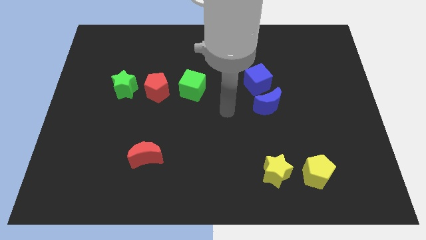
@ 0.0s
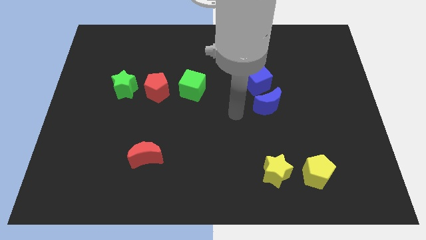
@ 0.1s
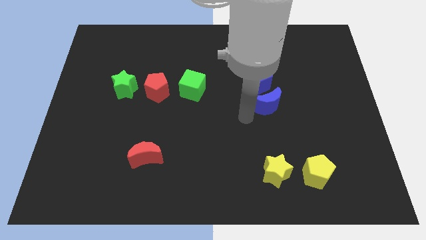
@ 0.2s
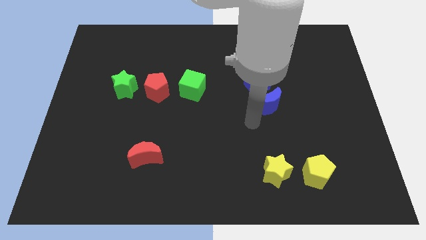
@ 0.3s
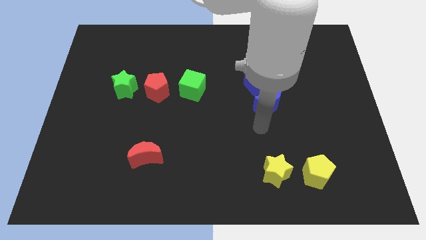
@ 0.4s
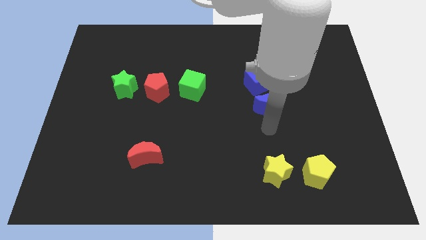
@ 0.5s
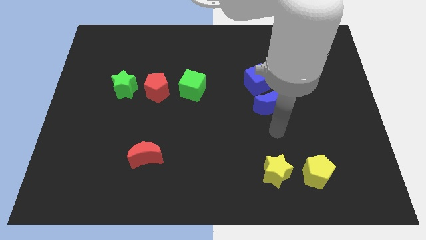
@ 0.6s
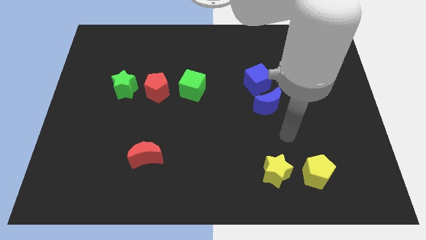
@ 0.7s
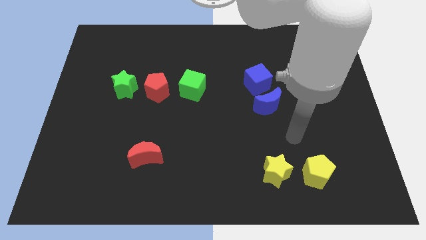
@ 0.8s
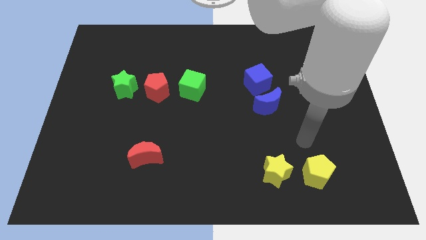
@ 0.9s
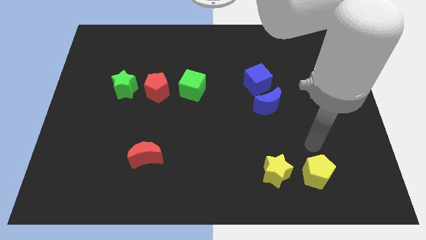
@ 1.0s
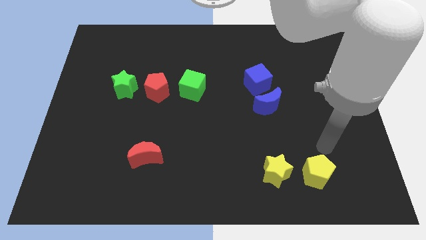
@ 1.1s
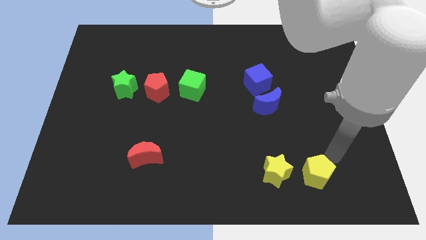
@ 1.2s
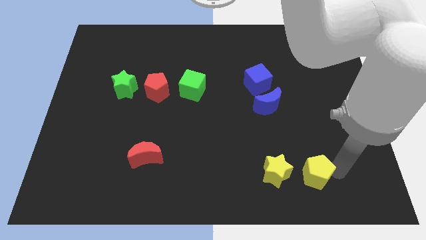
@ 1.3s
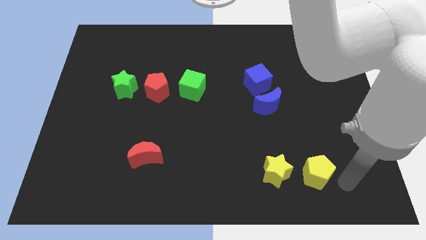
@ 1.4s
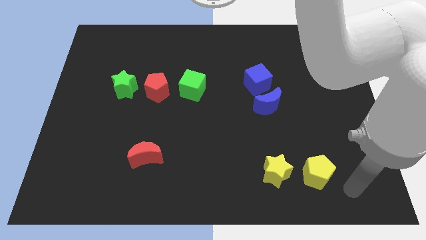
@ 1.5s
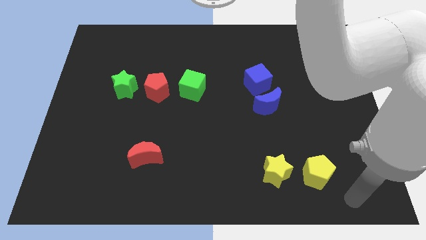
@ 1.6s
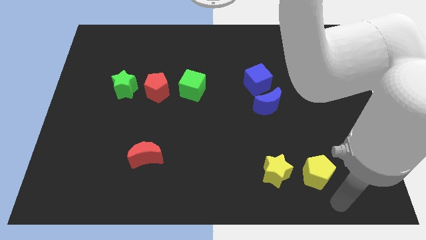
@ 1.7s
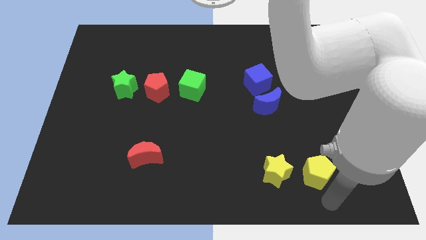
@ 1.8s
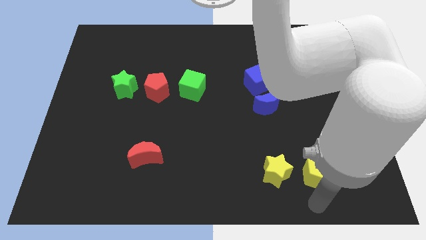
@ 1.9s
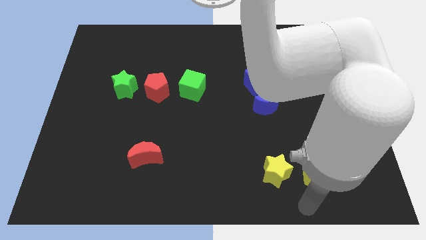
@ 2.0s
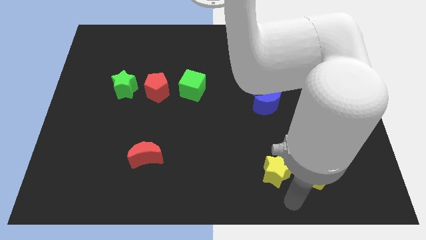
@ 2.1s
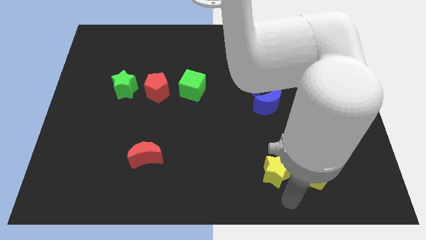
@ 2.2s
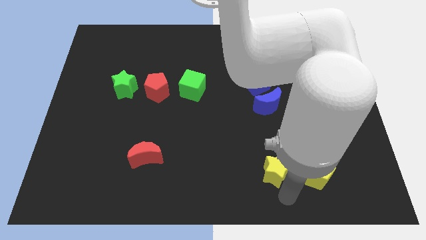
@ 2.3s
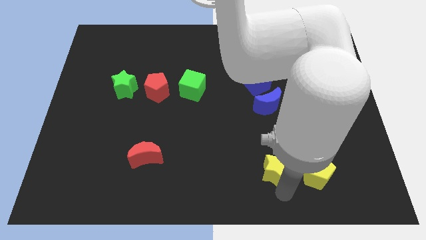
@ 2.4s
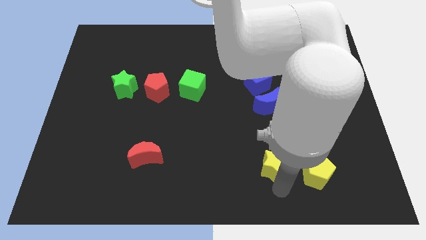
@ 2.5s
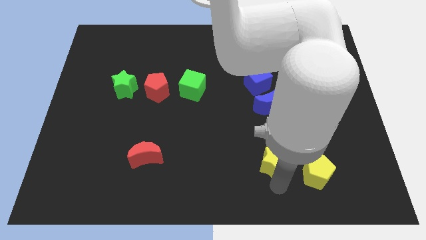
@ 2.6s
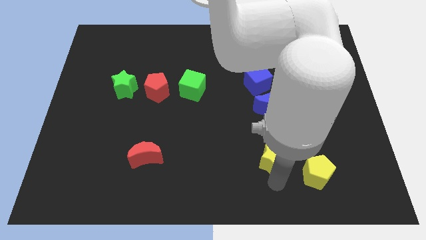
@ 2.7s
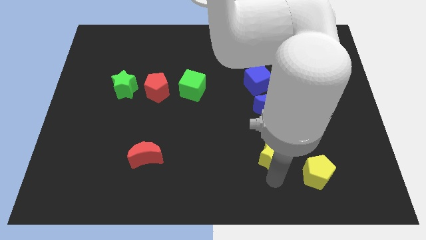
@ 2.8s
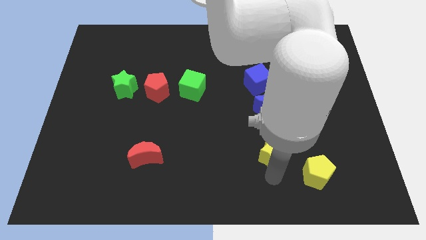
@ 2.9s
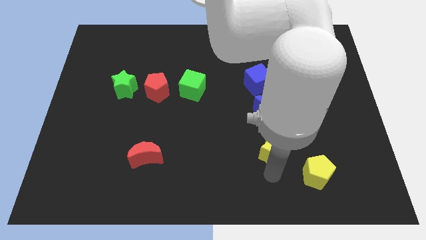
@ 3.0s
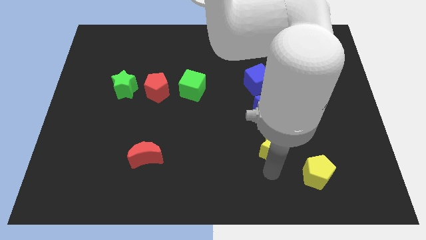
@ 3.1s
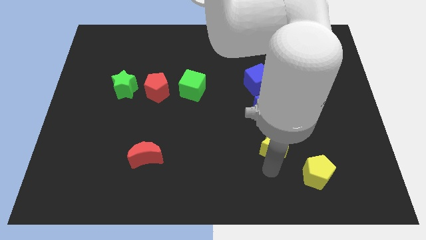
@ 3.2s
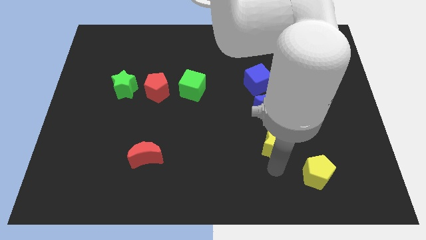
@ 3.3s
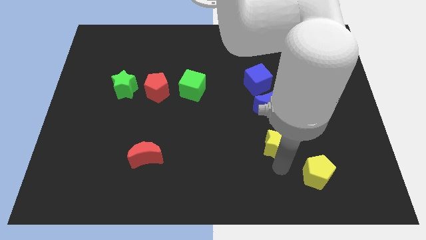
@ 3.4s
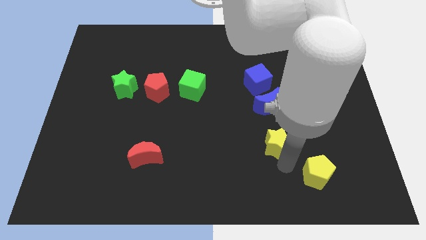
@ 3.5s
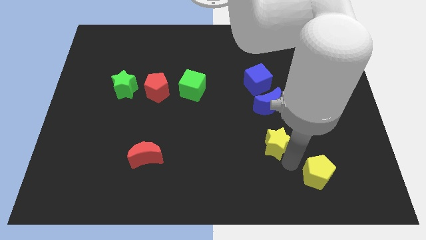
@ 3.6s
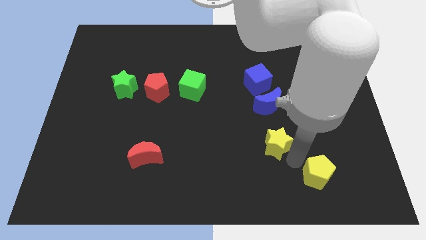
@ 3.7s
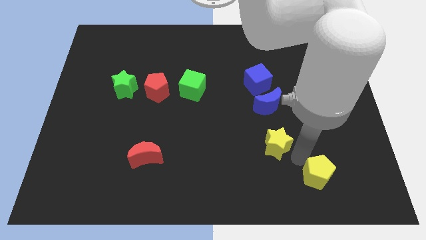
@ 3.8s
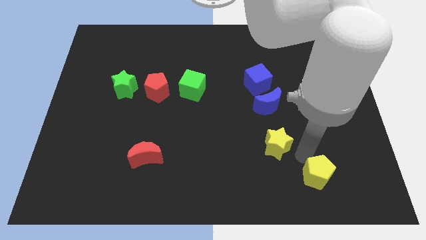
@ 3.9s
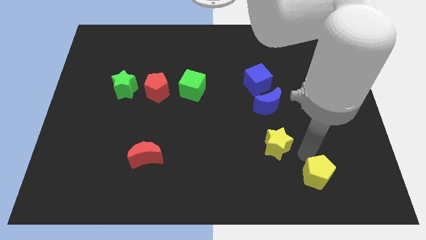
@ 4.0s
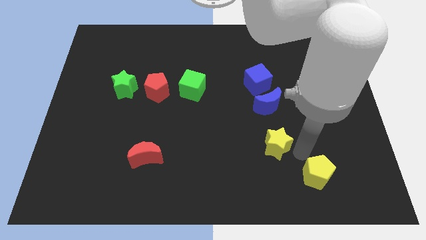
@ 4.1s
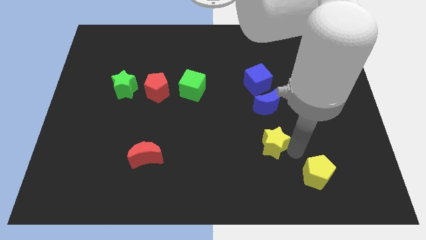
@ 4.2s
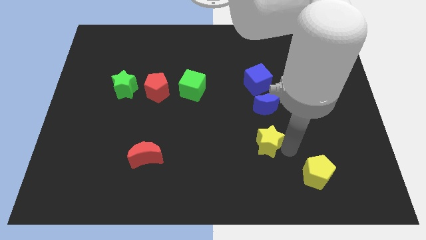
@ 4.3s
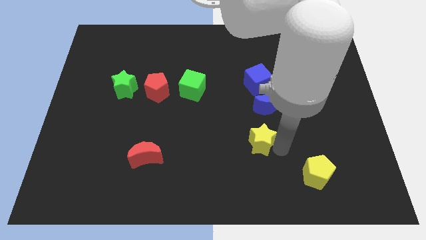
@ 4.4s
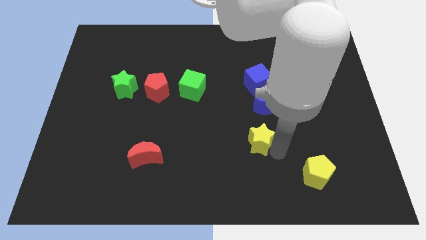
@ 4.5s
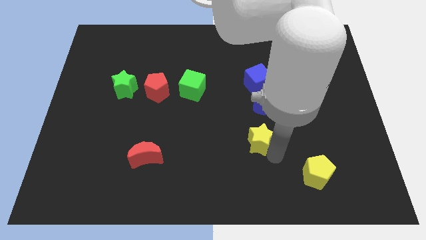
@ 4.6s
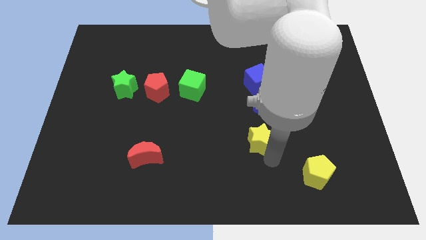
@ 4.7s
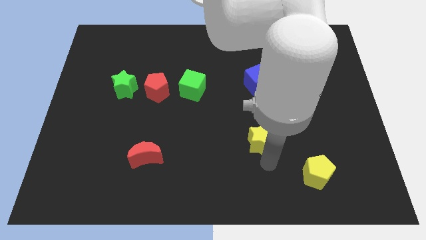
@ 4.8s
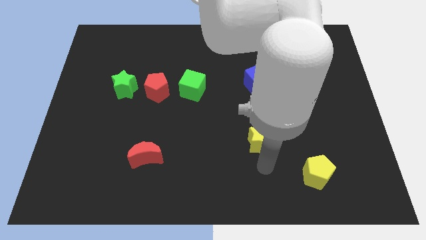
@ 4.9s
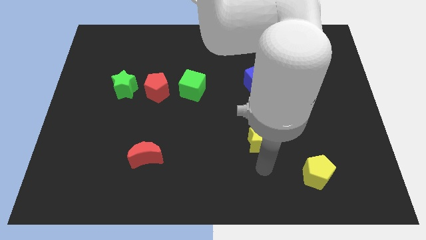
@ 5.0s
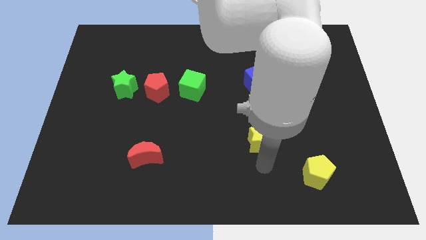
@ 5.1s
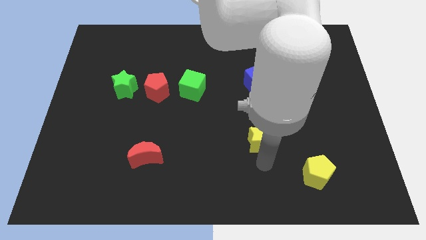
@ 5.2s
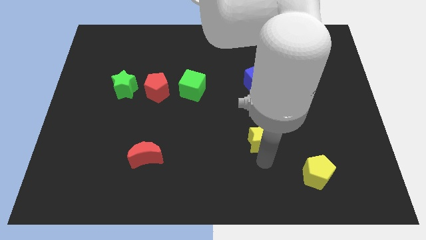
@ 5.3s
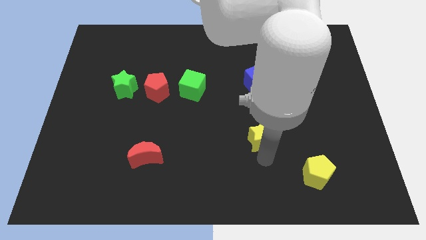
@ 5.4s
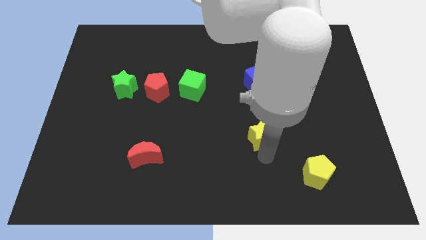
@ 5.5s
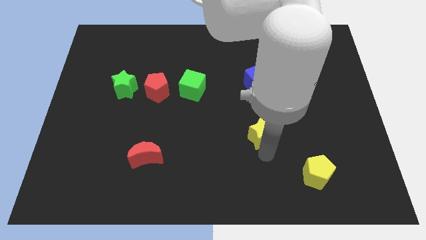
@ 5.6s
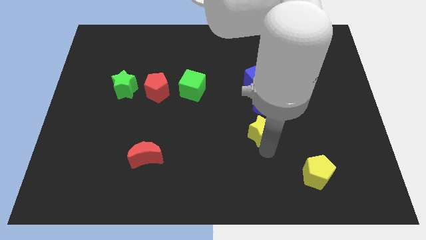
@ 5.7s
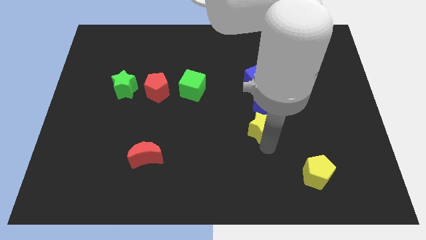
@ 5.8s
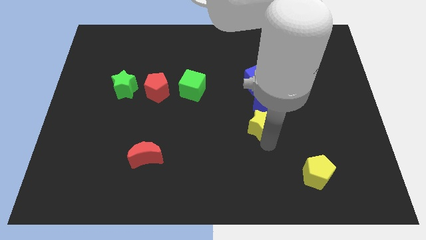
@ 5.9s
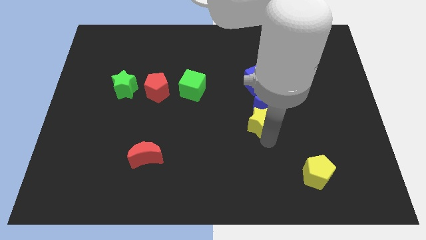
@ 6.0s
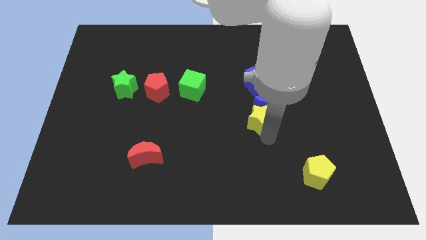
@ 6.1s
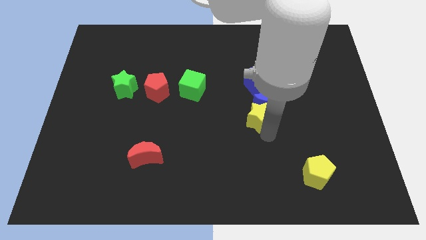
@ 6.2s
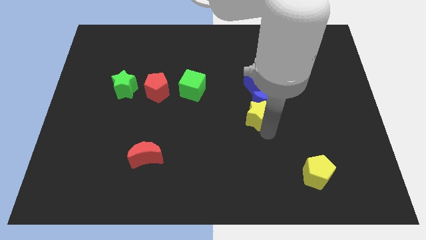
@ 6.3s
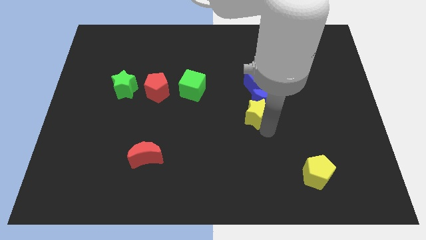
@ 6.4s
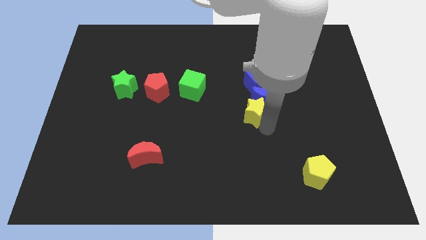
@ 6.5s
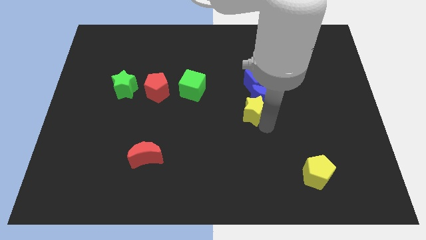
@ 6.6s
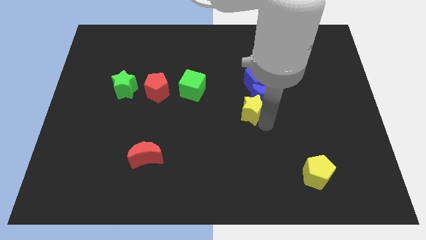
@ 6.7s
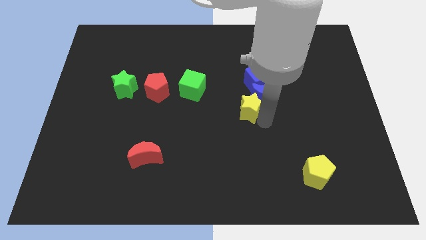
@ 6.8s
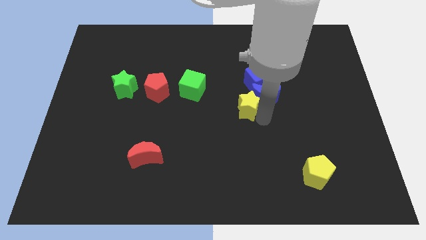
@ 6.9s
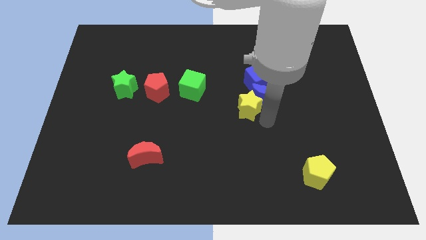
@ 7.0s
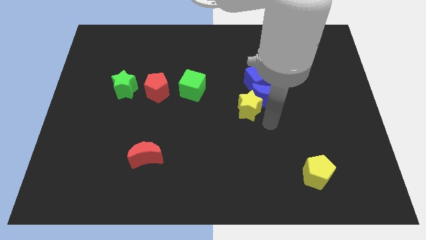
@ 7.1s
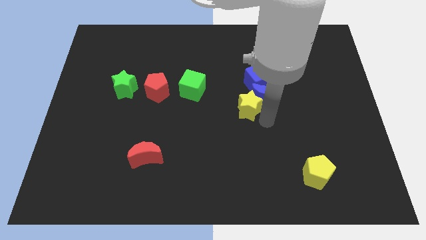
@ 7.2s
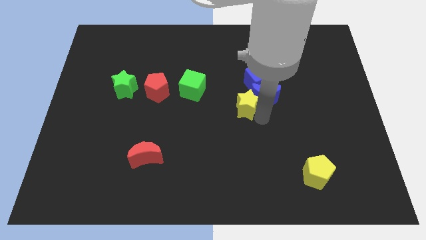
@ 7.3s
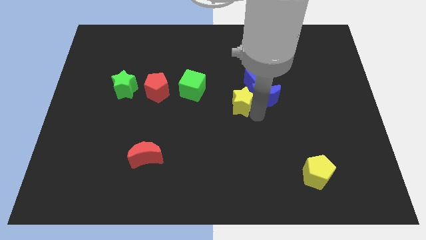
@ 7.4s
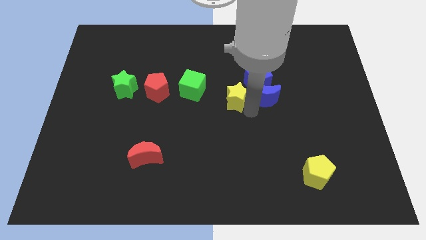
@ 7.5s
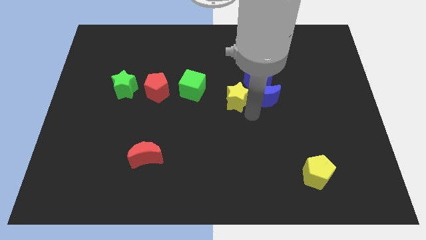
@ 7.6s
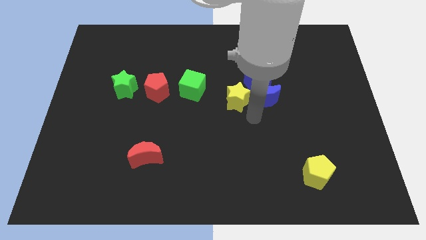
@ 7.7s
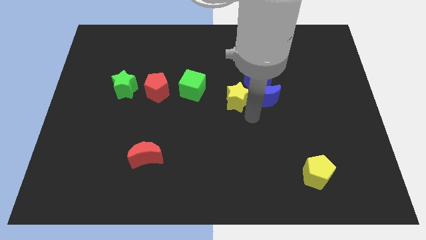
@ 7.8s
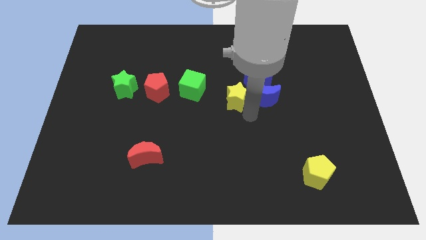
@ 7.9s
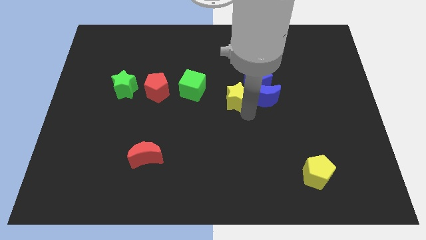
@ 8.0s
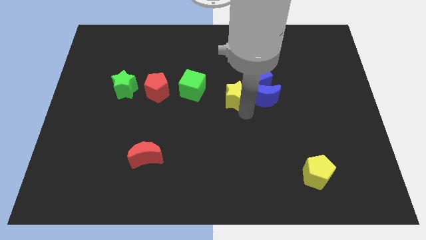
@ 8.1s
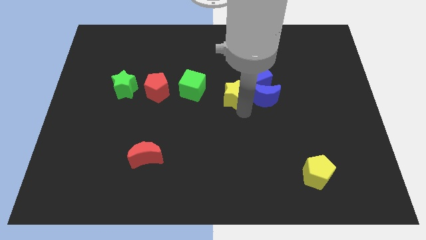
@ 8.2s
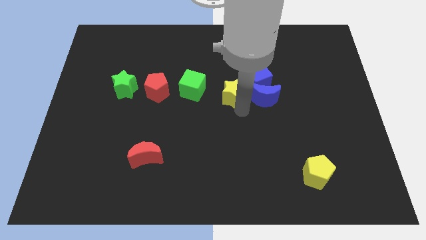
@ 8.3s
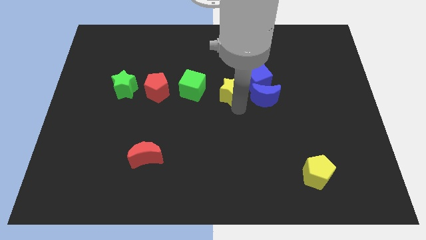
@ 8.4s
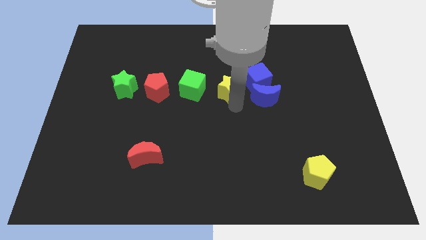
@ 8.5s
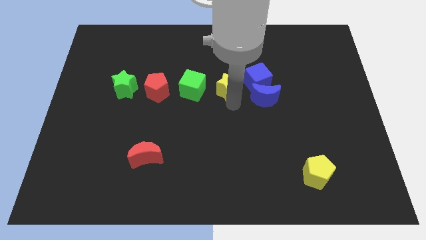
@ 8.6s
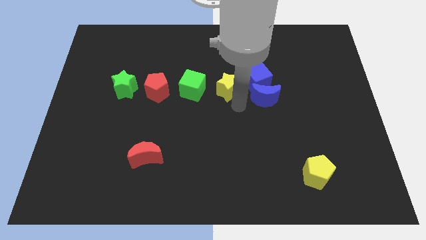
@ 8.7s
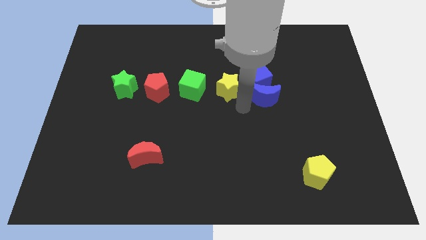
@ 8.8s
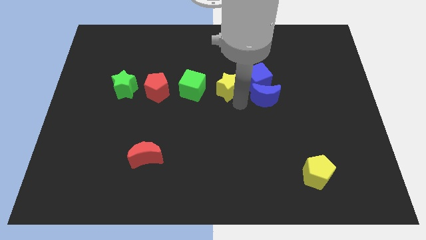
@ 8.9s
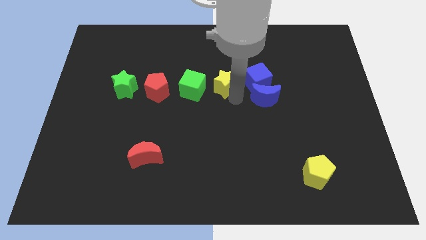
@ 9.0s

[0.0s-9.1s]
move the yellow star diagonally up and to the right of the green cube
